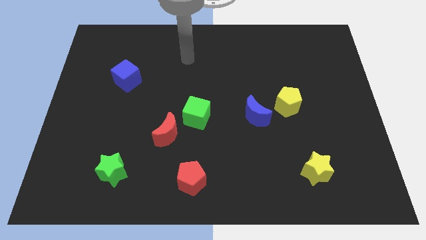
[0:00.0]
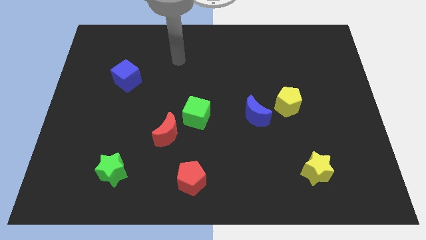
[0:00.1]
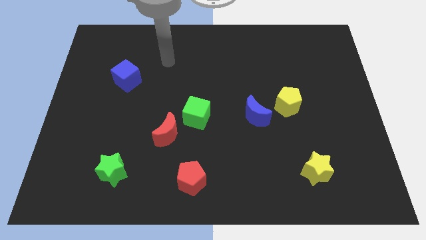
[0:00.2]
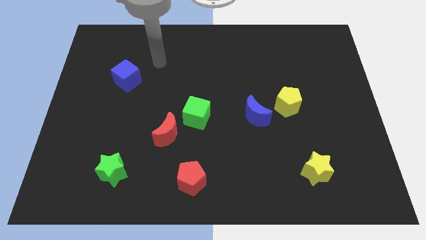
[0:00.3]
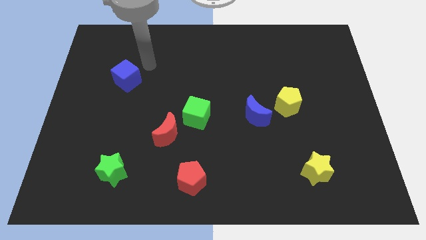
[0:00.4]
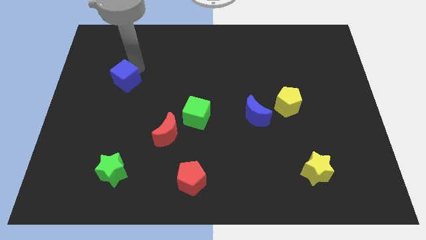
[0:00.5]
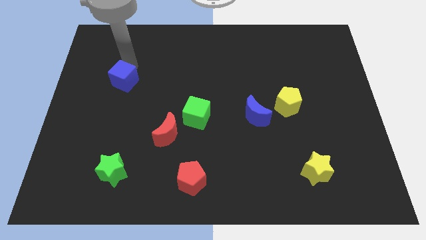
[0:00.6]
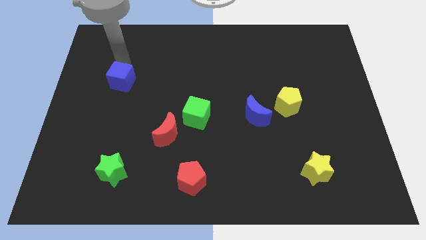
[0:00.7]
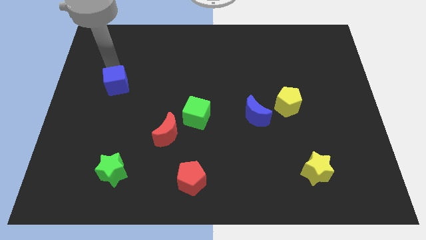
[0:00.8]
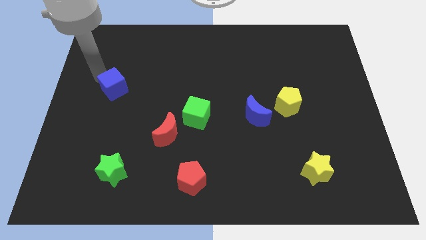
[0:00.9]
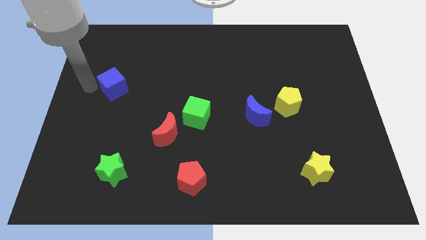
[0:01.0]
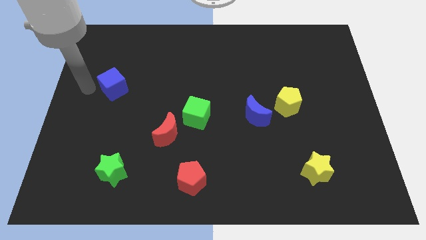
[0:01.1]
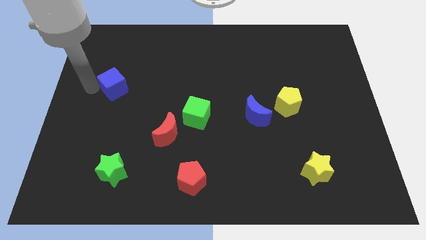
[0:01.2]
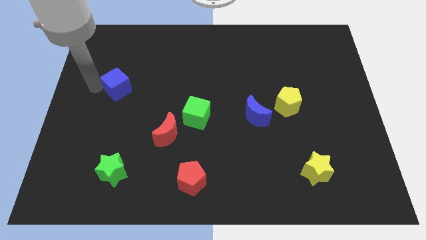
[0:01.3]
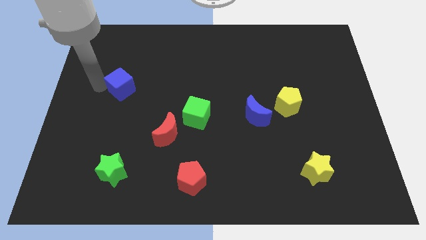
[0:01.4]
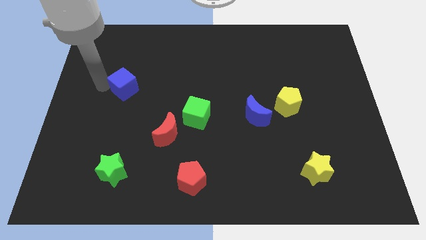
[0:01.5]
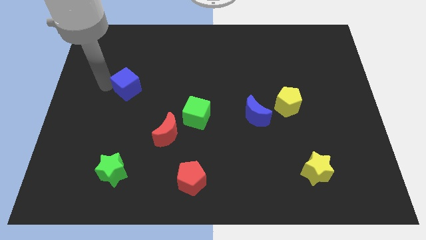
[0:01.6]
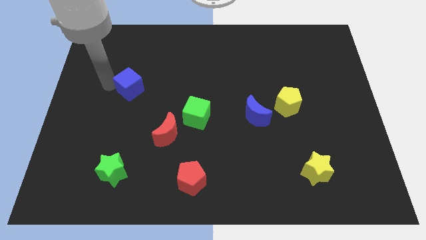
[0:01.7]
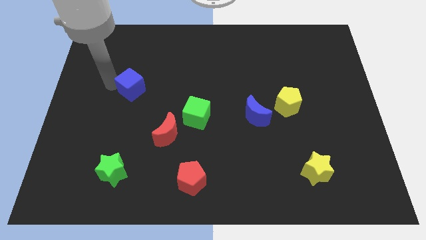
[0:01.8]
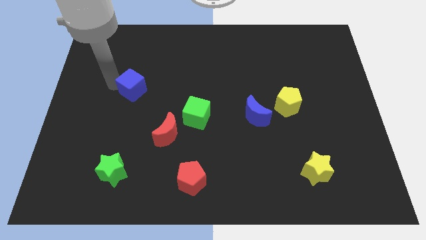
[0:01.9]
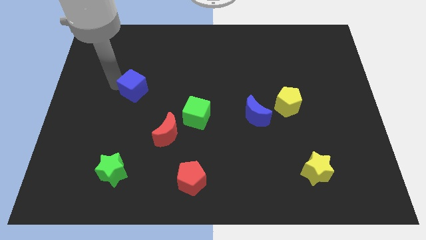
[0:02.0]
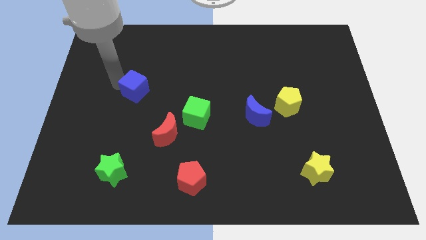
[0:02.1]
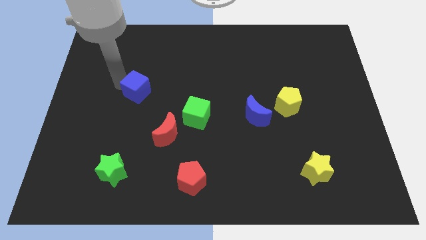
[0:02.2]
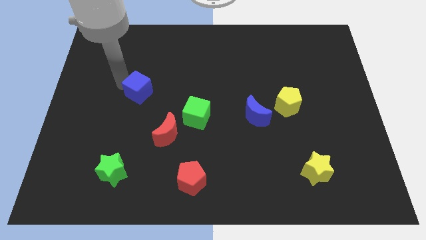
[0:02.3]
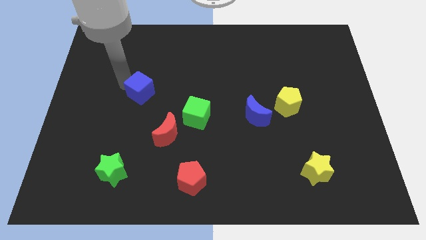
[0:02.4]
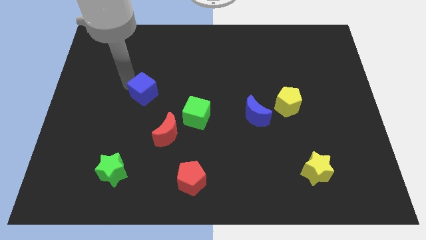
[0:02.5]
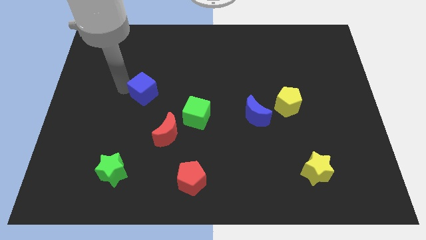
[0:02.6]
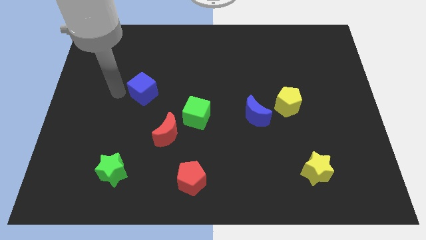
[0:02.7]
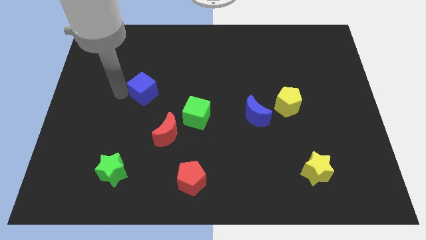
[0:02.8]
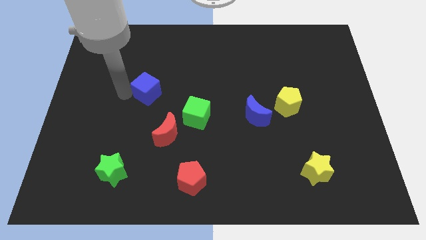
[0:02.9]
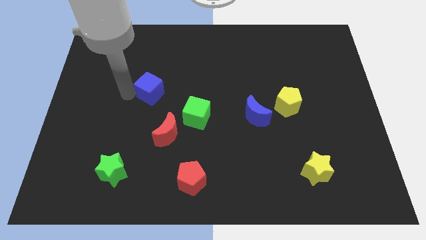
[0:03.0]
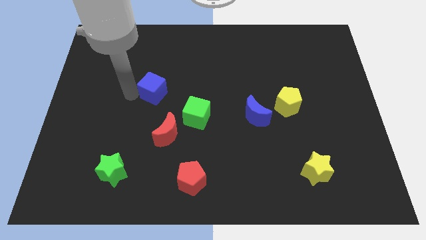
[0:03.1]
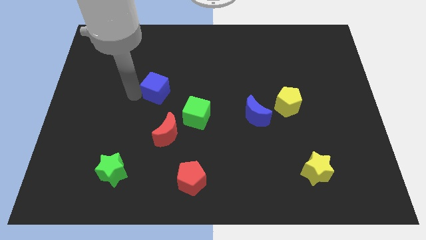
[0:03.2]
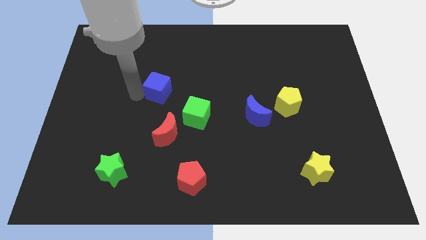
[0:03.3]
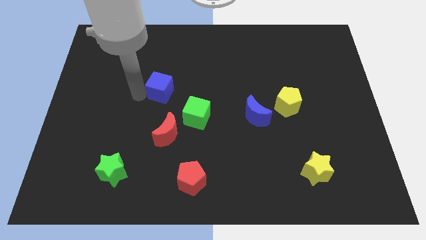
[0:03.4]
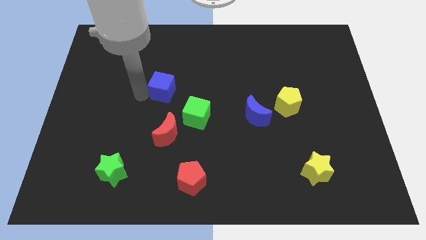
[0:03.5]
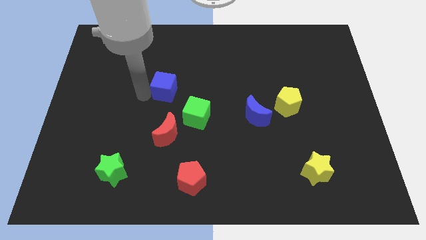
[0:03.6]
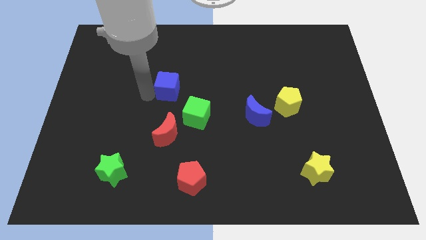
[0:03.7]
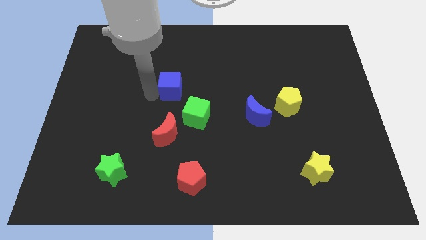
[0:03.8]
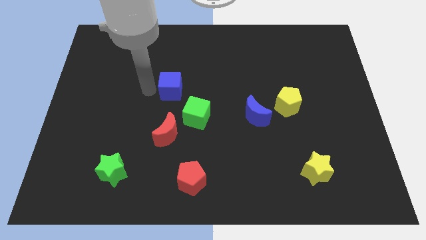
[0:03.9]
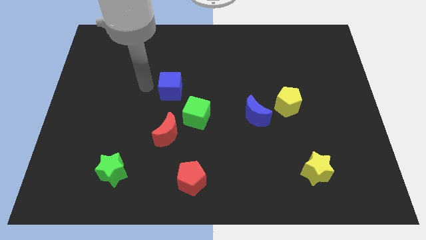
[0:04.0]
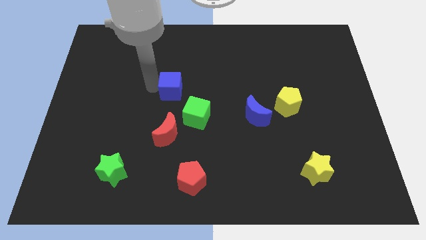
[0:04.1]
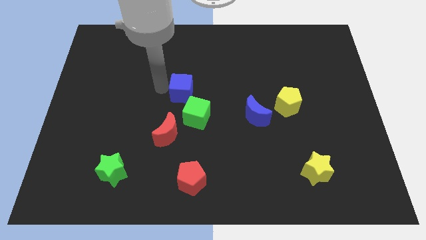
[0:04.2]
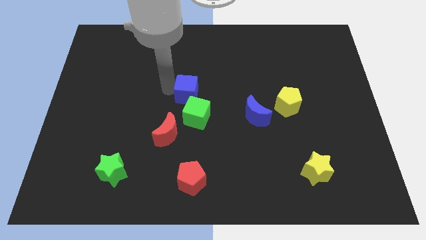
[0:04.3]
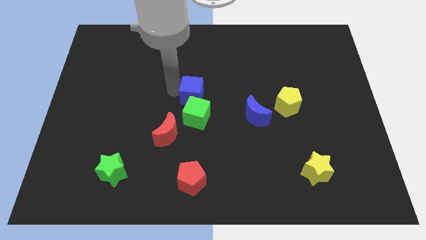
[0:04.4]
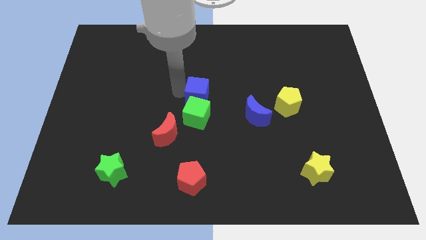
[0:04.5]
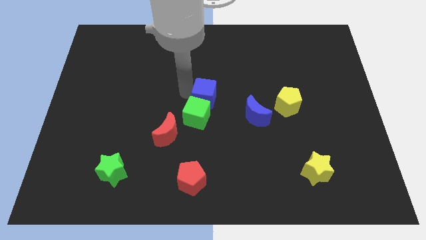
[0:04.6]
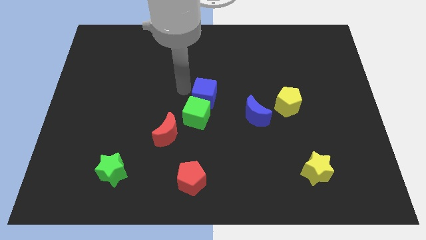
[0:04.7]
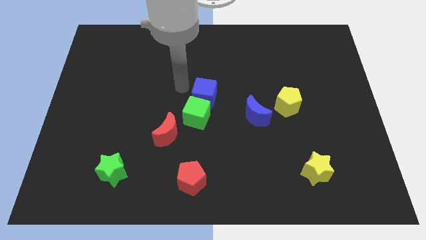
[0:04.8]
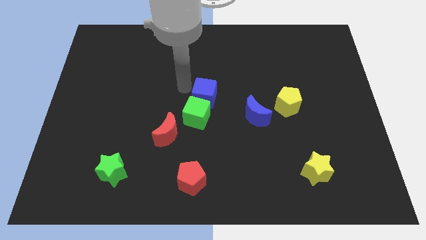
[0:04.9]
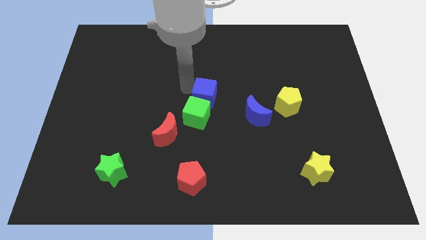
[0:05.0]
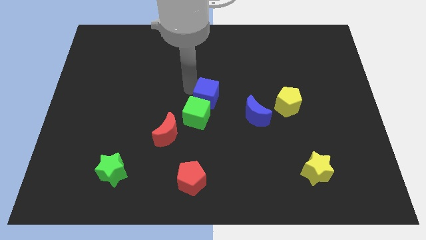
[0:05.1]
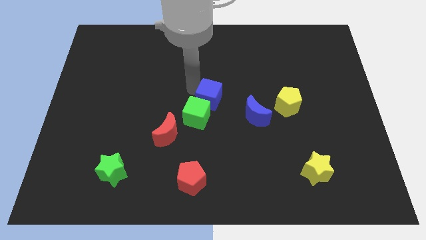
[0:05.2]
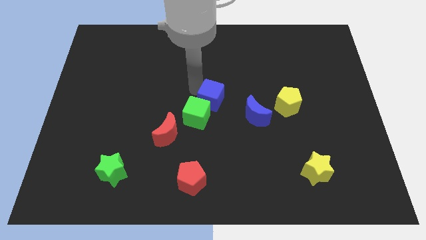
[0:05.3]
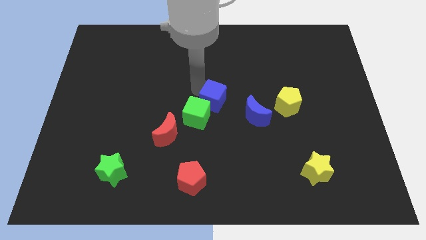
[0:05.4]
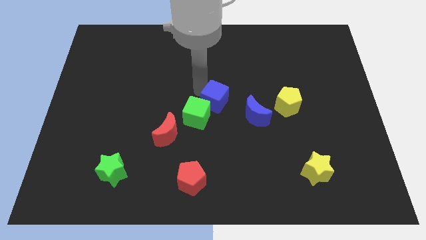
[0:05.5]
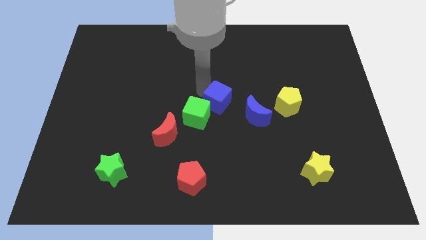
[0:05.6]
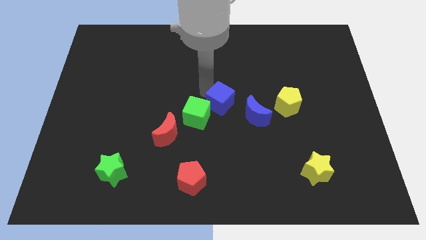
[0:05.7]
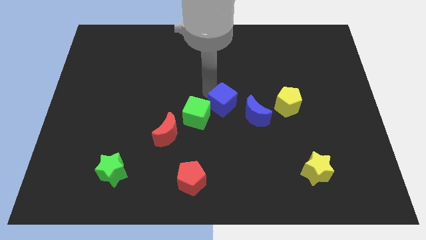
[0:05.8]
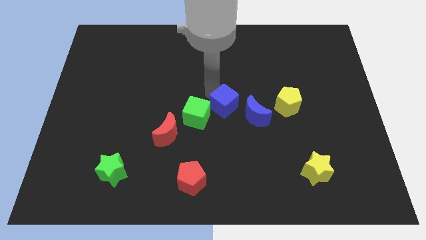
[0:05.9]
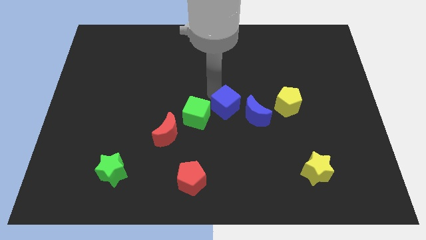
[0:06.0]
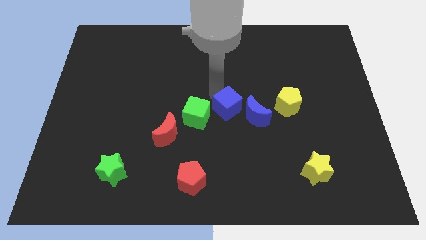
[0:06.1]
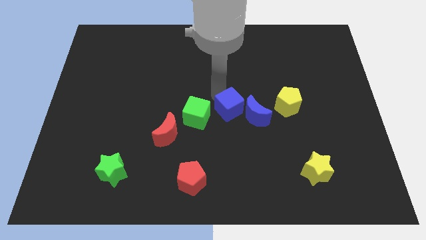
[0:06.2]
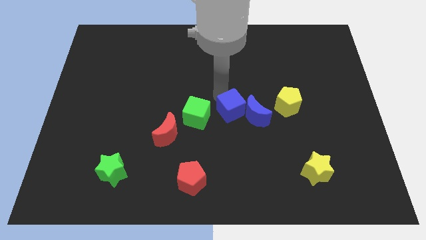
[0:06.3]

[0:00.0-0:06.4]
move the blue cube to the blue moon

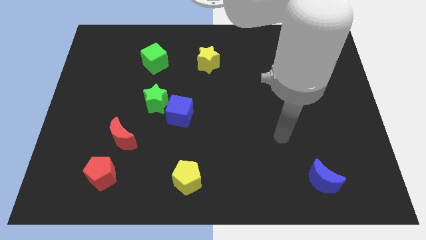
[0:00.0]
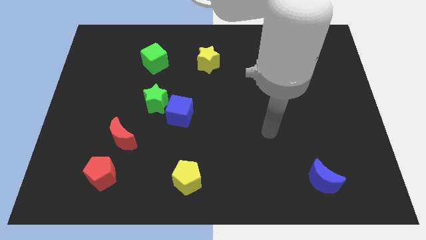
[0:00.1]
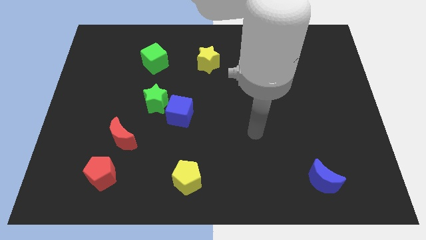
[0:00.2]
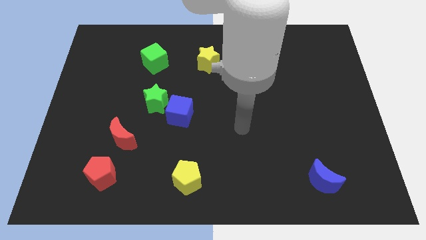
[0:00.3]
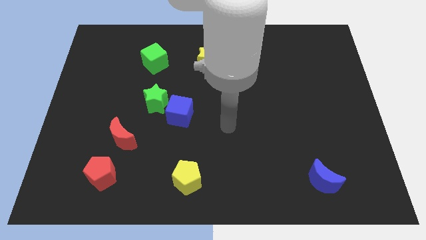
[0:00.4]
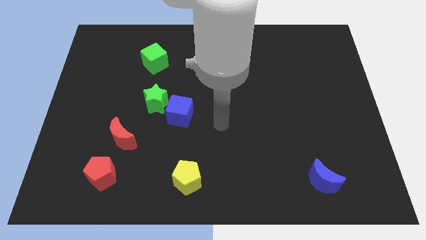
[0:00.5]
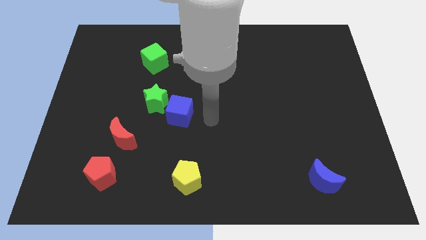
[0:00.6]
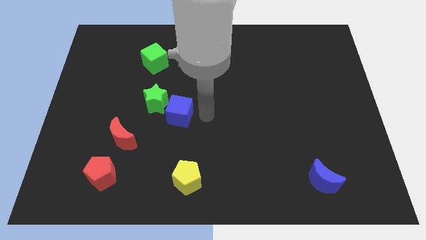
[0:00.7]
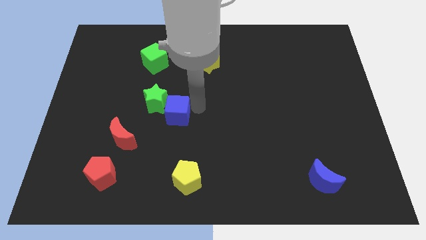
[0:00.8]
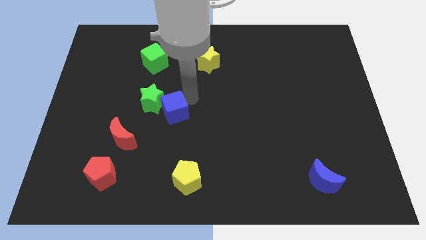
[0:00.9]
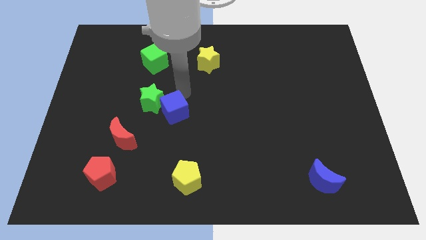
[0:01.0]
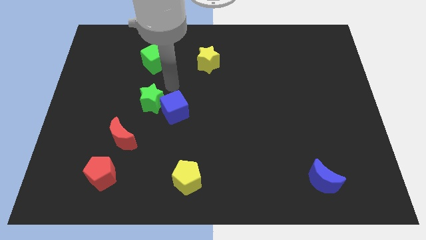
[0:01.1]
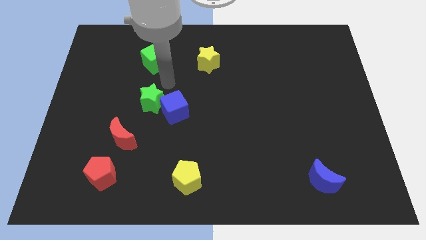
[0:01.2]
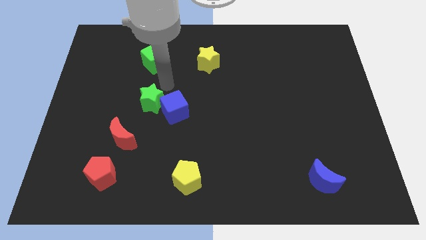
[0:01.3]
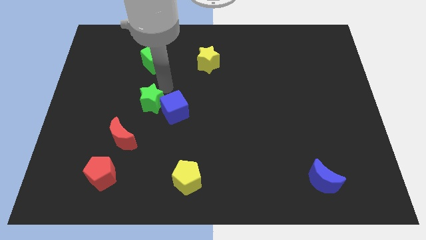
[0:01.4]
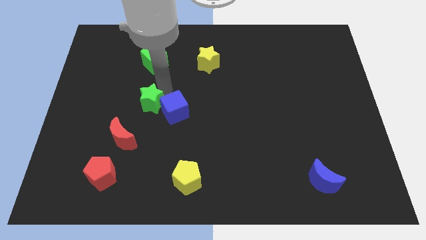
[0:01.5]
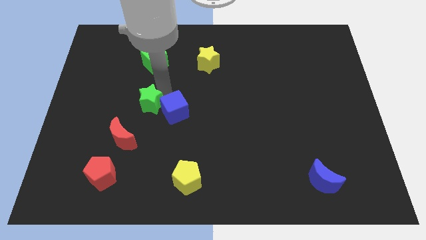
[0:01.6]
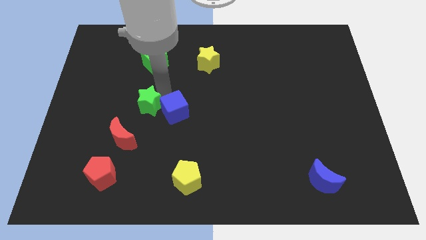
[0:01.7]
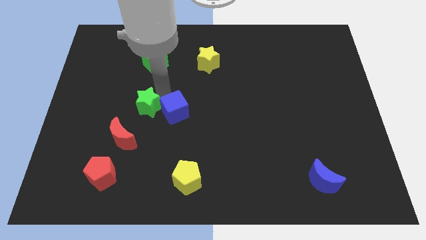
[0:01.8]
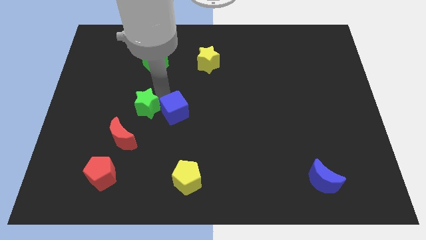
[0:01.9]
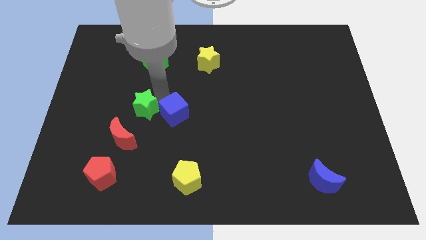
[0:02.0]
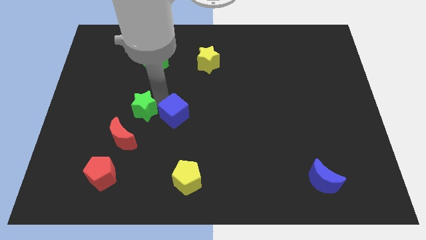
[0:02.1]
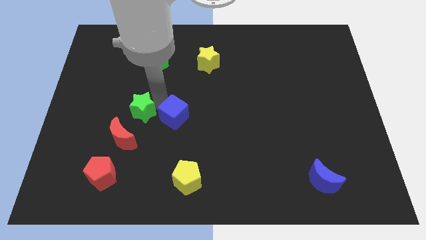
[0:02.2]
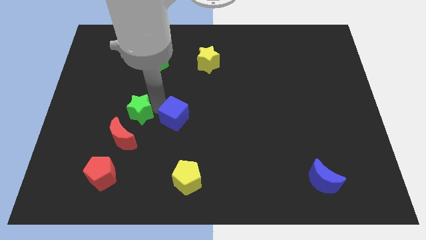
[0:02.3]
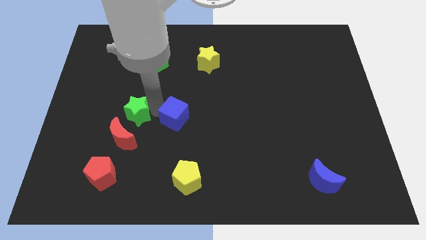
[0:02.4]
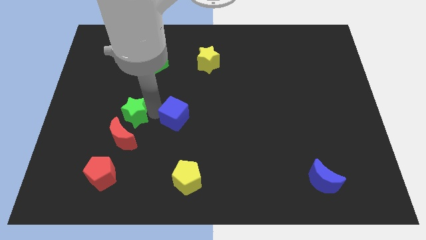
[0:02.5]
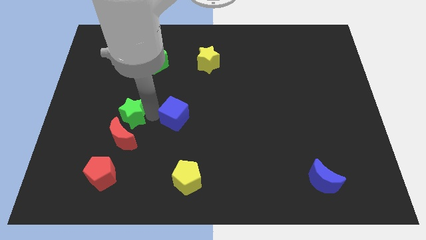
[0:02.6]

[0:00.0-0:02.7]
move the green star towards the red moon
